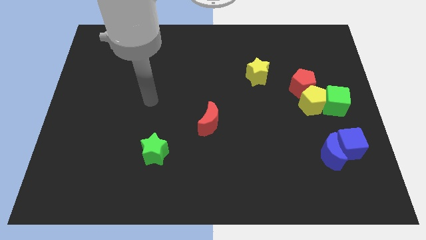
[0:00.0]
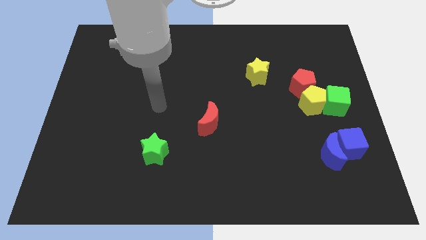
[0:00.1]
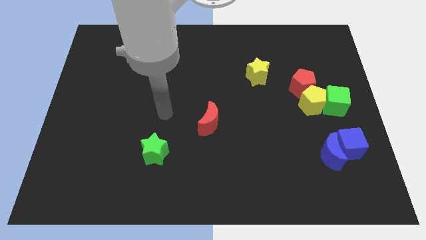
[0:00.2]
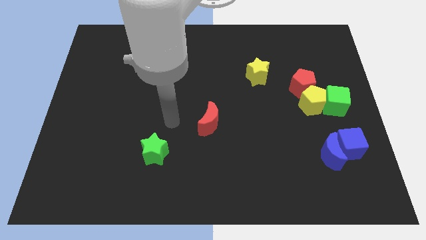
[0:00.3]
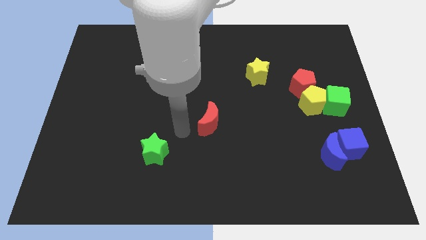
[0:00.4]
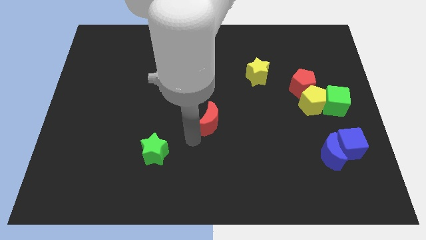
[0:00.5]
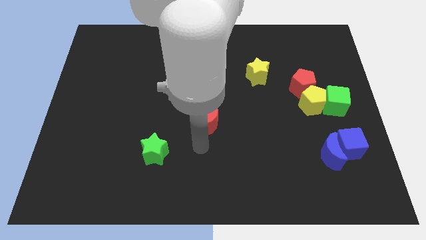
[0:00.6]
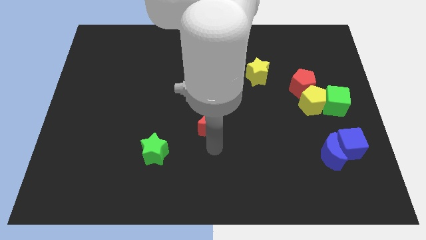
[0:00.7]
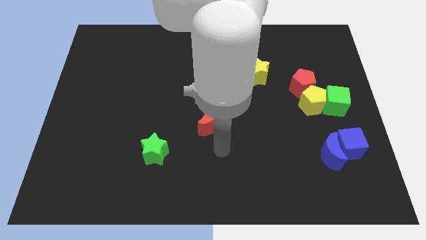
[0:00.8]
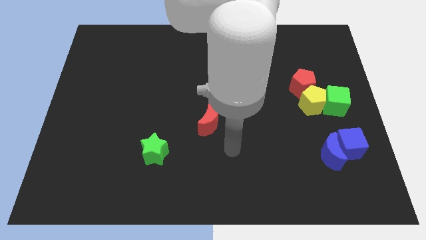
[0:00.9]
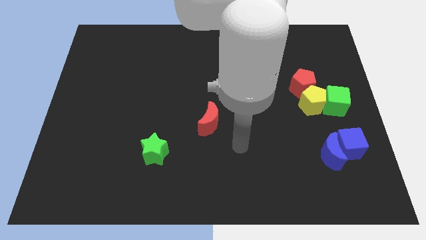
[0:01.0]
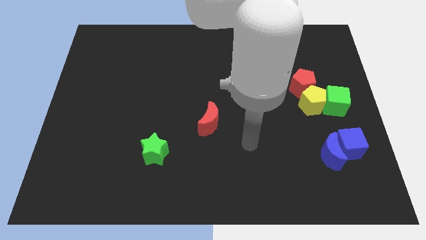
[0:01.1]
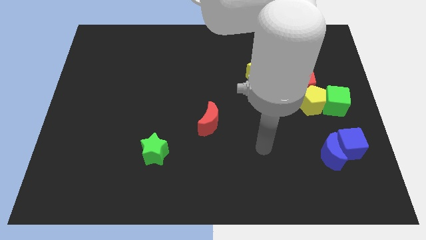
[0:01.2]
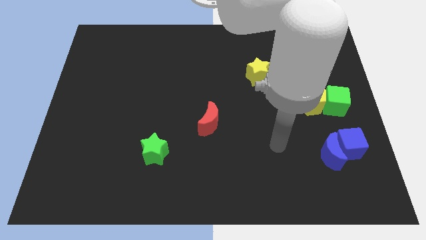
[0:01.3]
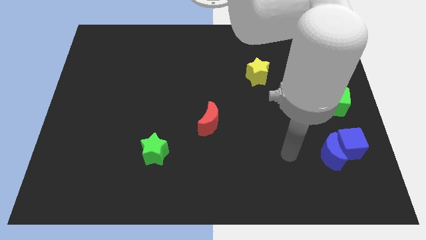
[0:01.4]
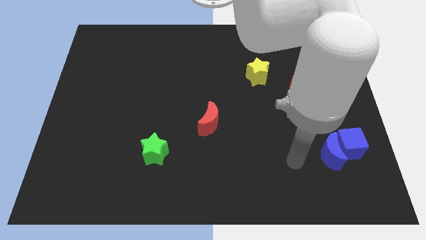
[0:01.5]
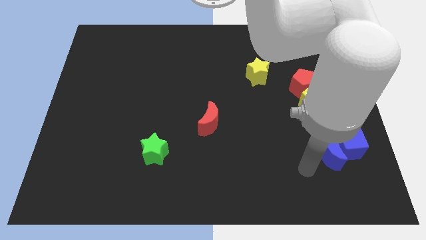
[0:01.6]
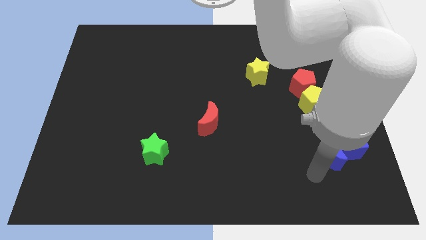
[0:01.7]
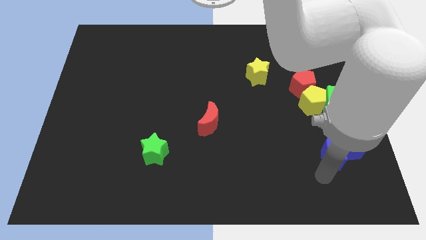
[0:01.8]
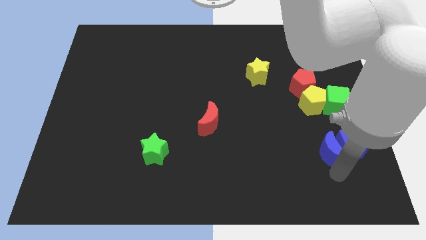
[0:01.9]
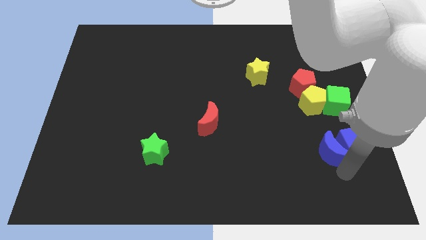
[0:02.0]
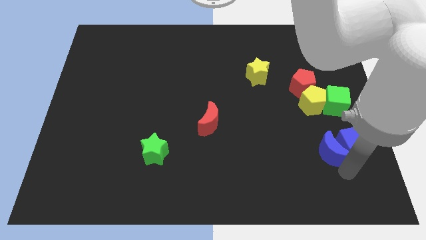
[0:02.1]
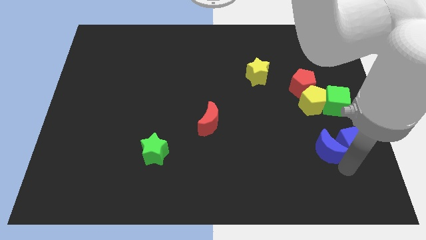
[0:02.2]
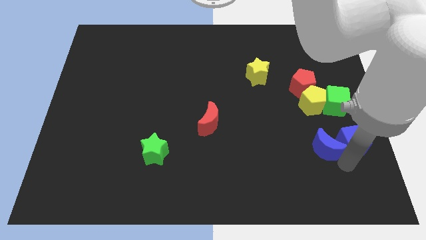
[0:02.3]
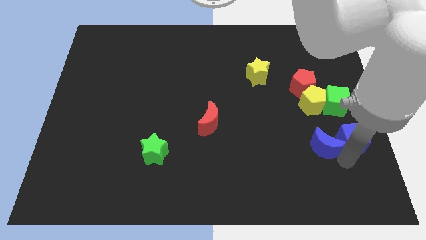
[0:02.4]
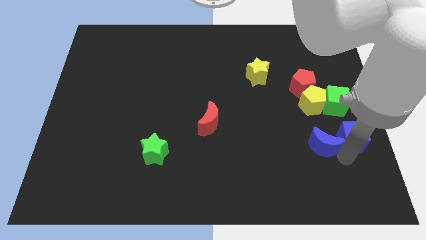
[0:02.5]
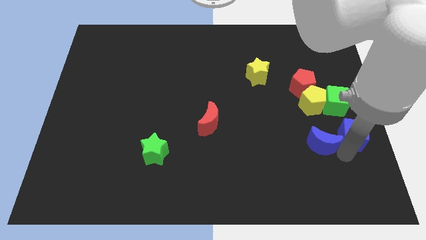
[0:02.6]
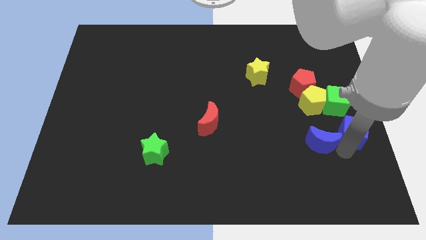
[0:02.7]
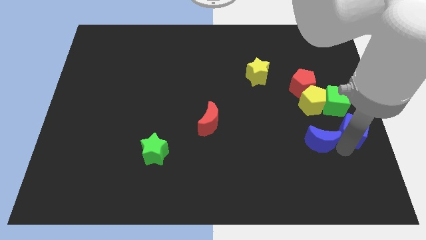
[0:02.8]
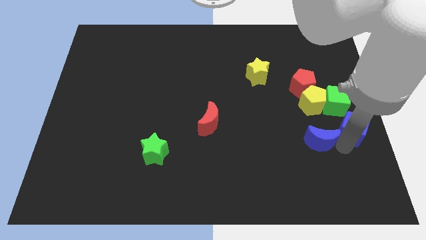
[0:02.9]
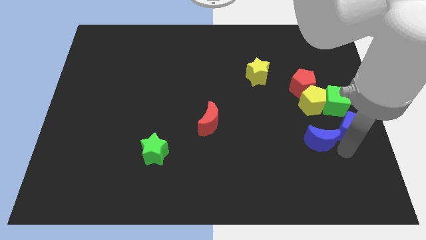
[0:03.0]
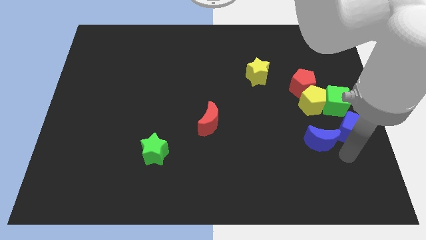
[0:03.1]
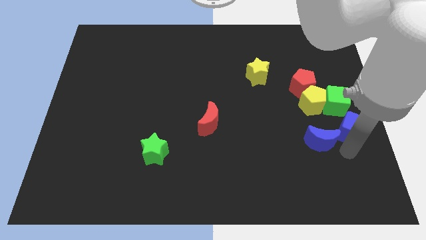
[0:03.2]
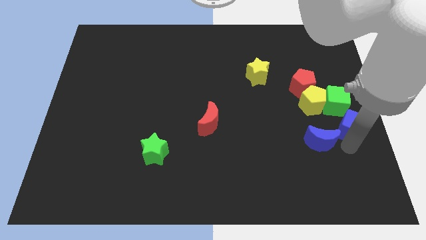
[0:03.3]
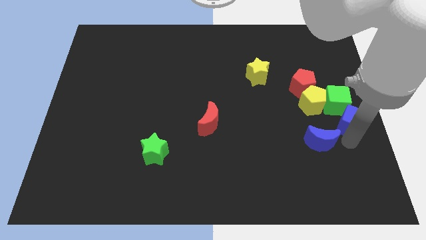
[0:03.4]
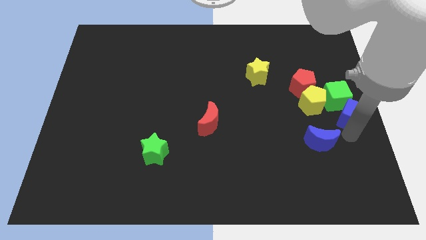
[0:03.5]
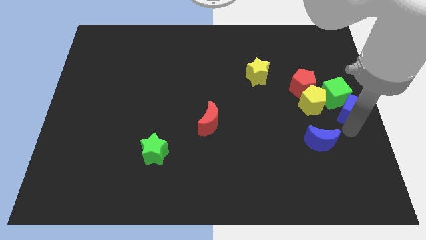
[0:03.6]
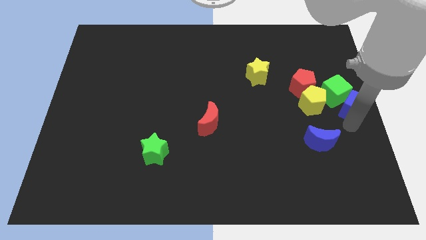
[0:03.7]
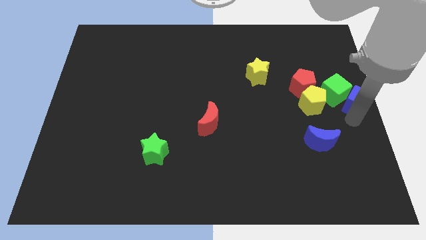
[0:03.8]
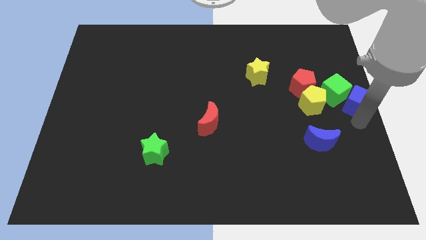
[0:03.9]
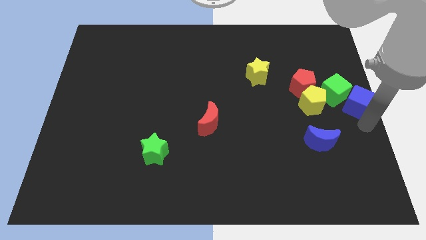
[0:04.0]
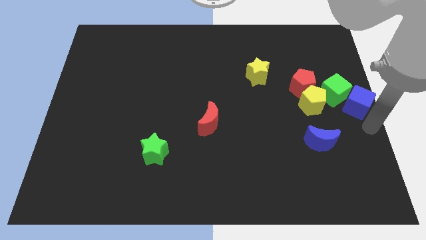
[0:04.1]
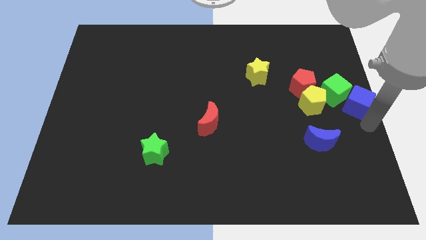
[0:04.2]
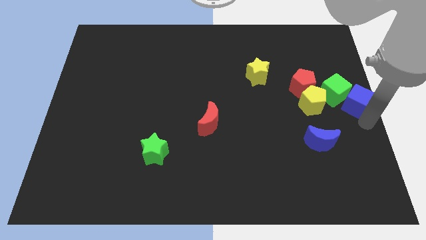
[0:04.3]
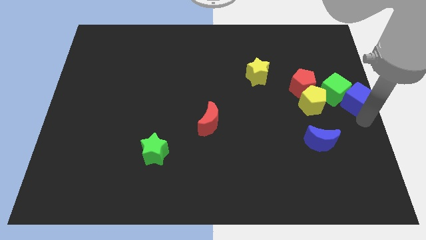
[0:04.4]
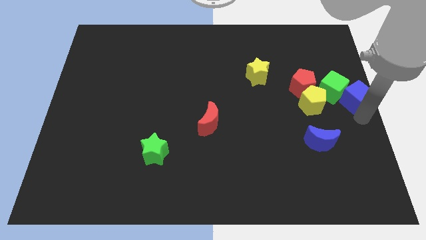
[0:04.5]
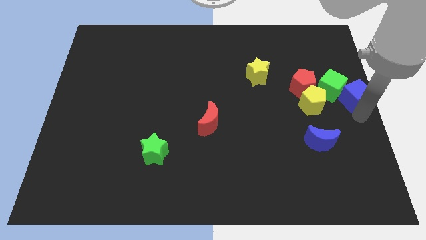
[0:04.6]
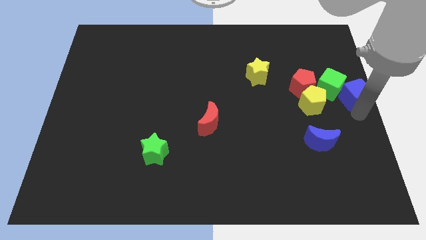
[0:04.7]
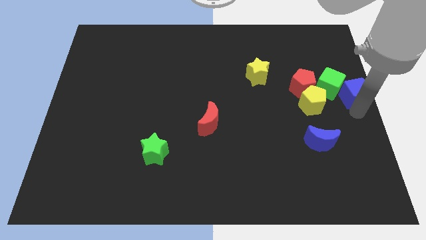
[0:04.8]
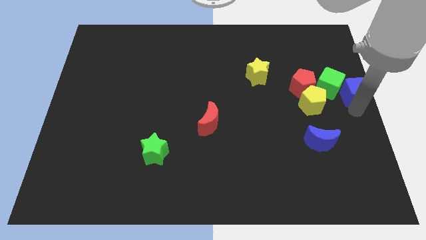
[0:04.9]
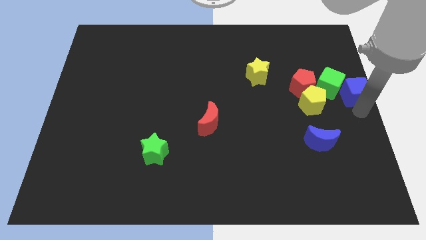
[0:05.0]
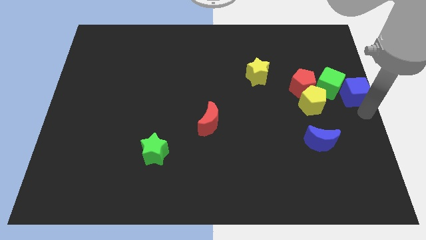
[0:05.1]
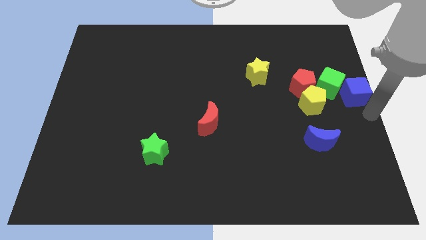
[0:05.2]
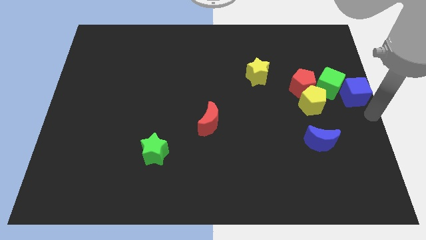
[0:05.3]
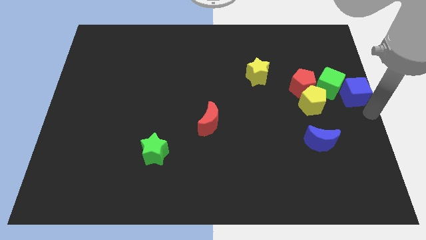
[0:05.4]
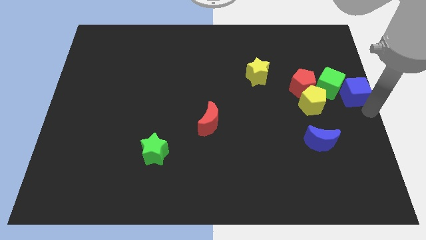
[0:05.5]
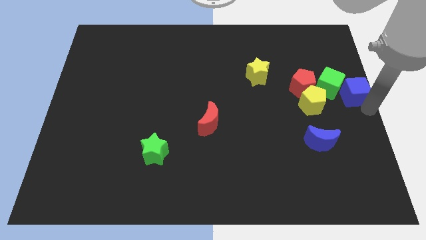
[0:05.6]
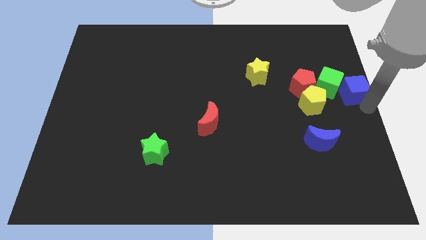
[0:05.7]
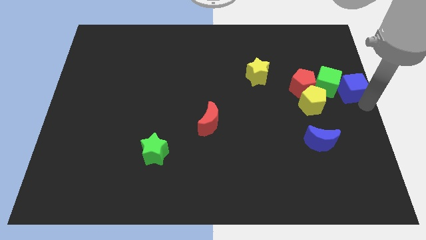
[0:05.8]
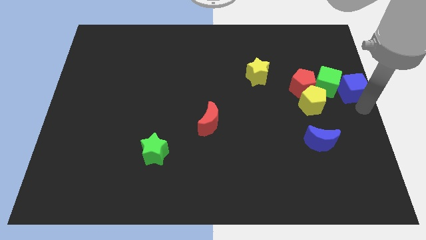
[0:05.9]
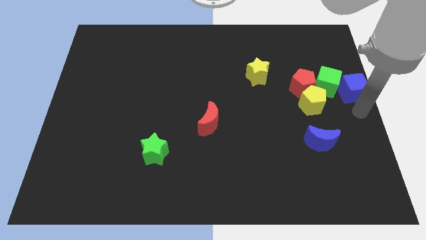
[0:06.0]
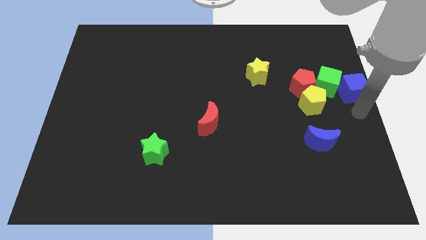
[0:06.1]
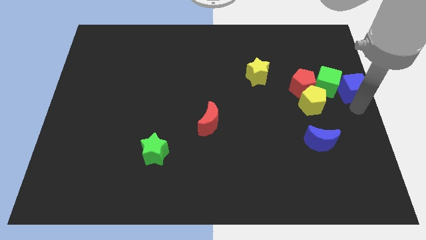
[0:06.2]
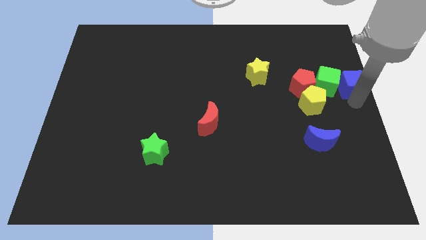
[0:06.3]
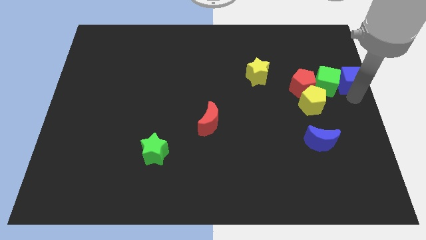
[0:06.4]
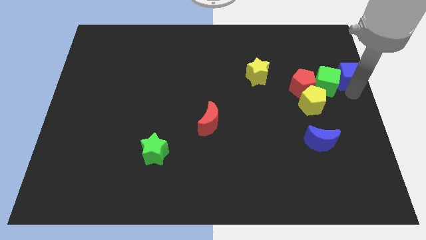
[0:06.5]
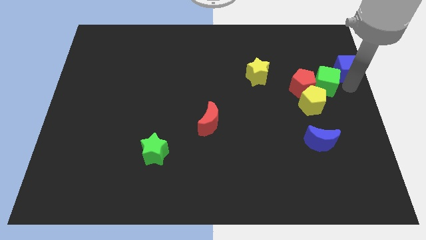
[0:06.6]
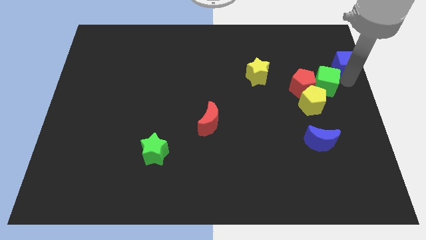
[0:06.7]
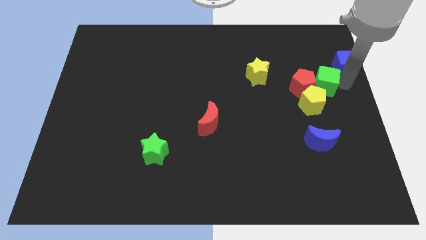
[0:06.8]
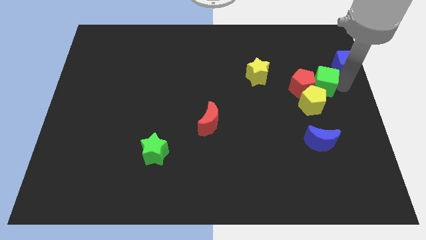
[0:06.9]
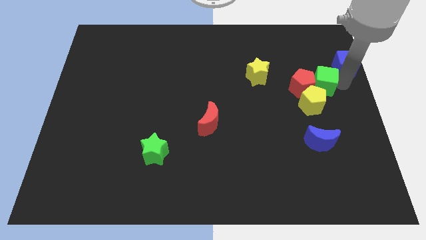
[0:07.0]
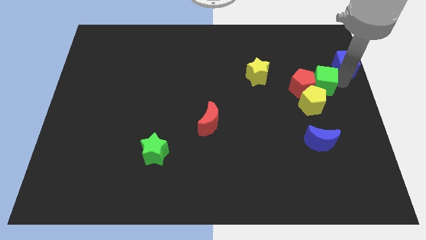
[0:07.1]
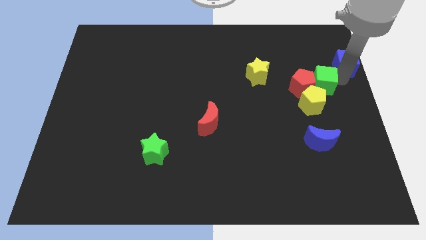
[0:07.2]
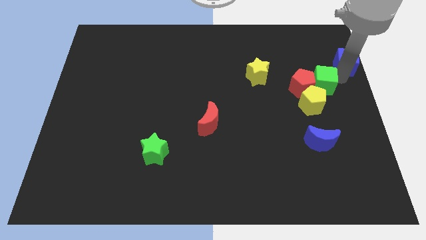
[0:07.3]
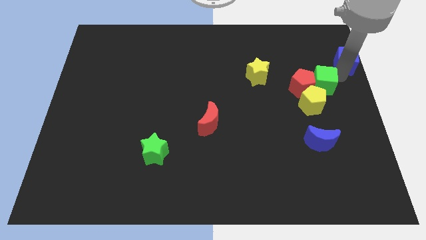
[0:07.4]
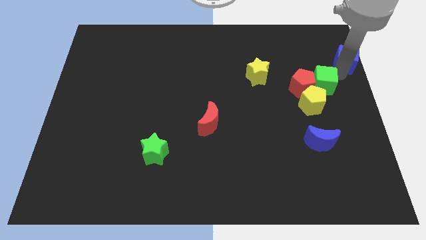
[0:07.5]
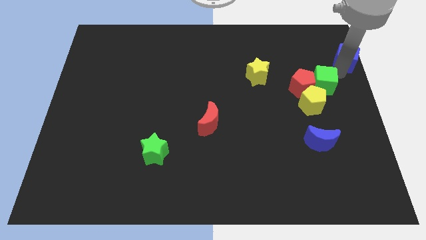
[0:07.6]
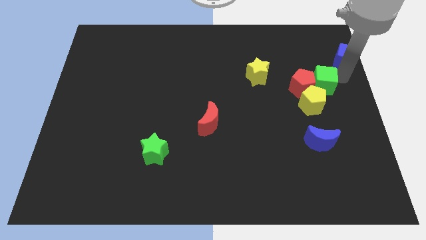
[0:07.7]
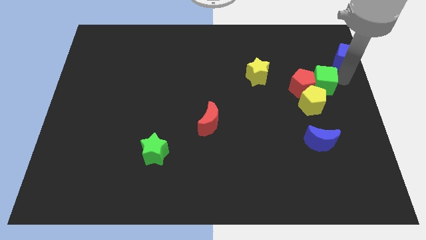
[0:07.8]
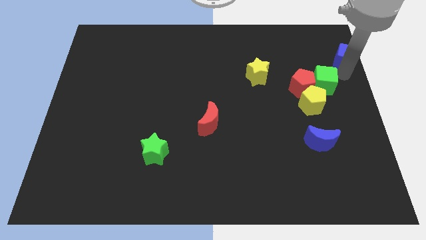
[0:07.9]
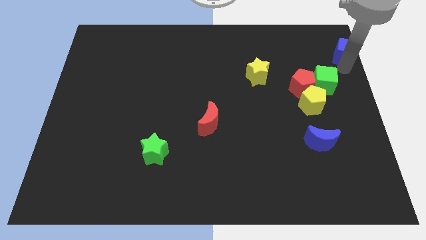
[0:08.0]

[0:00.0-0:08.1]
move the blue cube to the upper right corner
